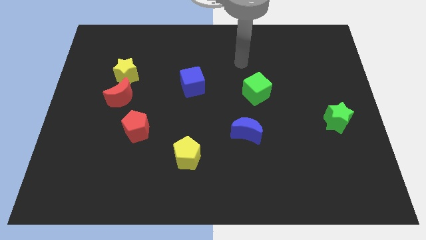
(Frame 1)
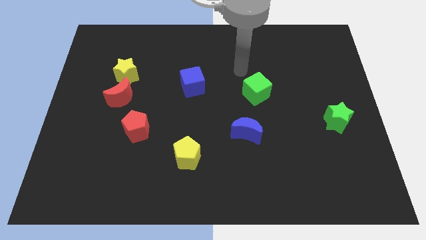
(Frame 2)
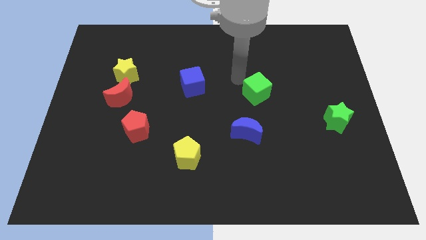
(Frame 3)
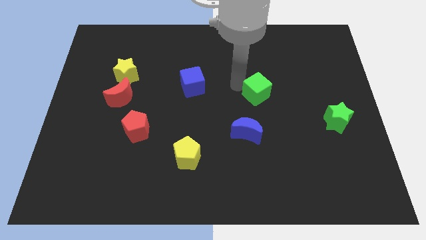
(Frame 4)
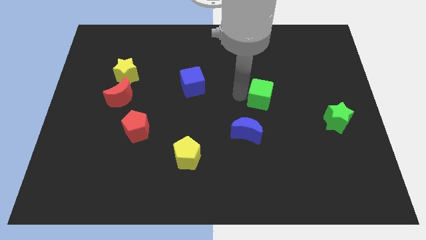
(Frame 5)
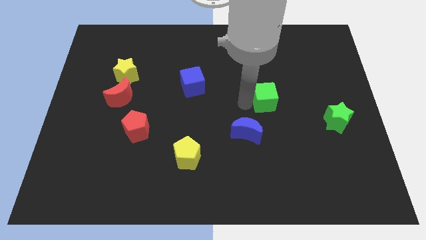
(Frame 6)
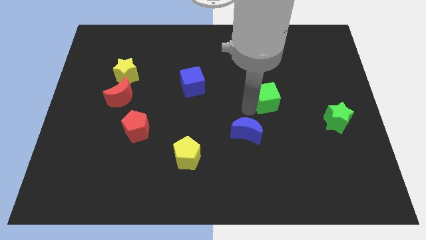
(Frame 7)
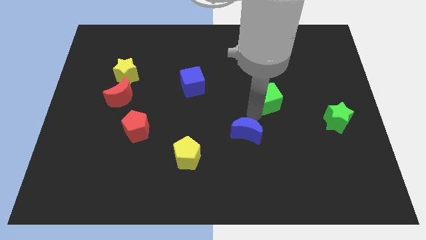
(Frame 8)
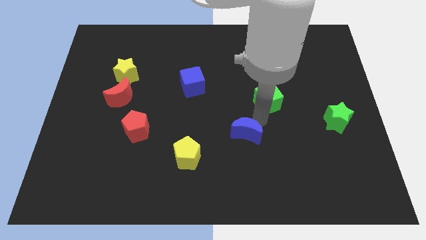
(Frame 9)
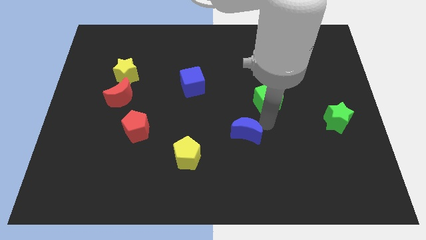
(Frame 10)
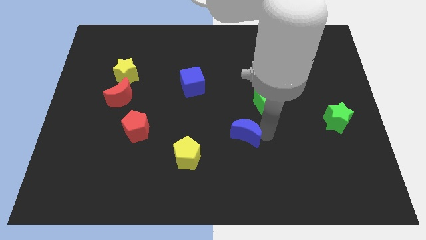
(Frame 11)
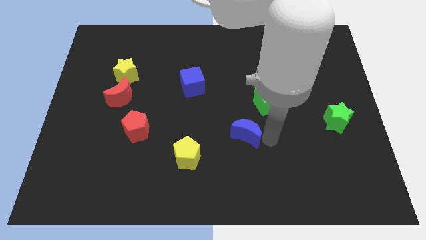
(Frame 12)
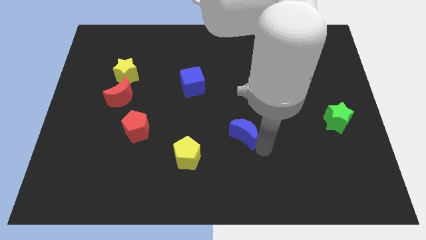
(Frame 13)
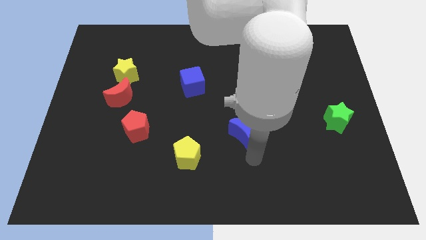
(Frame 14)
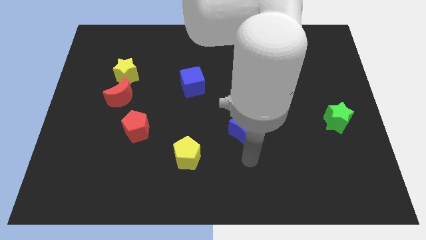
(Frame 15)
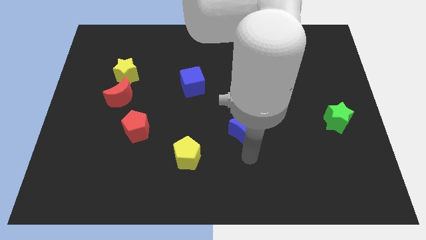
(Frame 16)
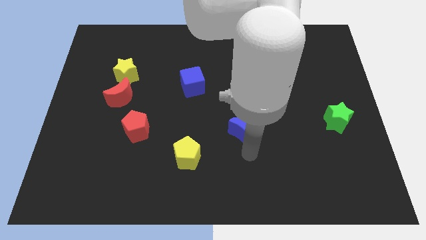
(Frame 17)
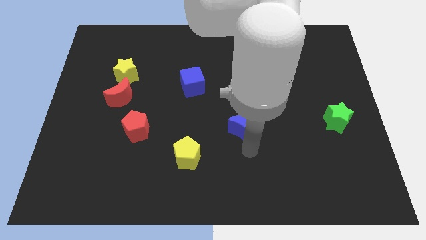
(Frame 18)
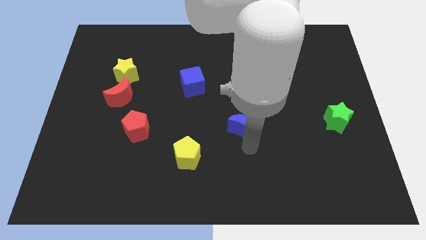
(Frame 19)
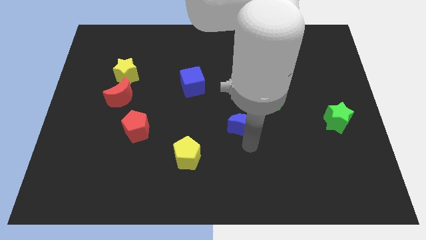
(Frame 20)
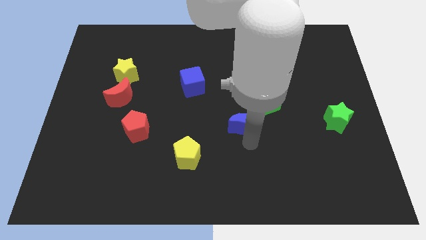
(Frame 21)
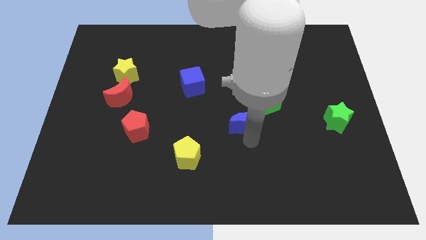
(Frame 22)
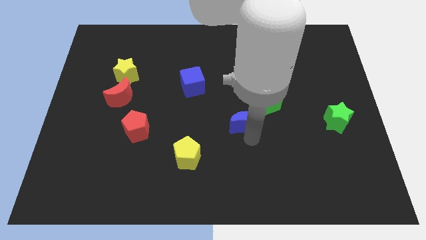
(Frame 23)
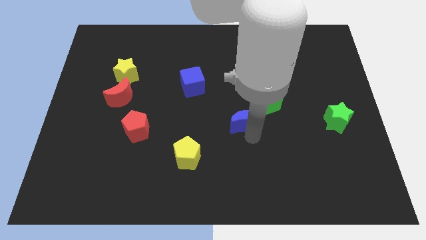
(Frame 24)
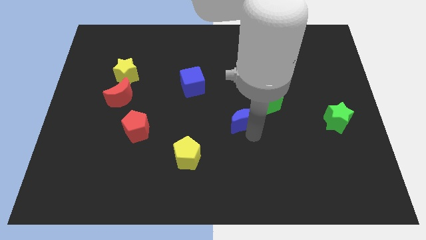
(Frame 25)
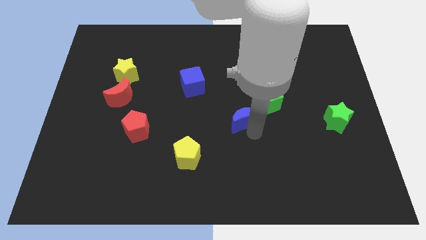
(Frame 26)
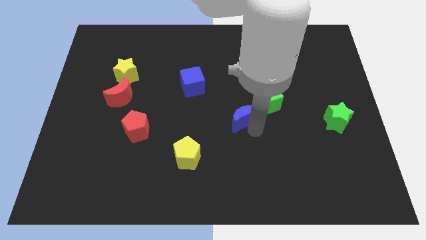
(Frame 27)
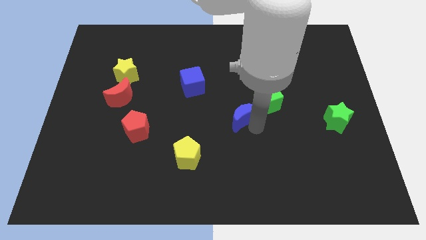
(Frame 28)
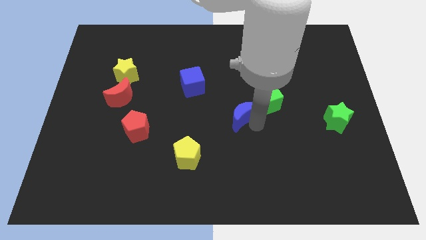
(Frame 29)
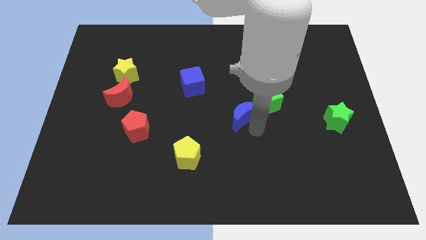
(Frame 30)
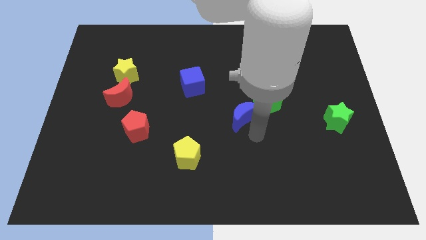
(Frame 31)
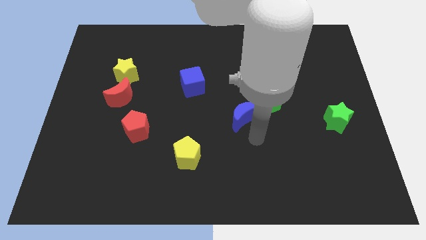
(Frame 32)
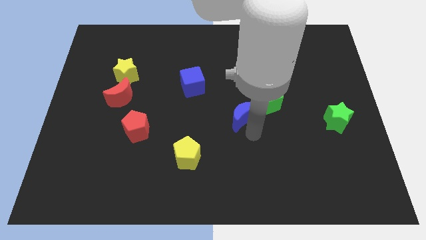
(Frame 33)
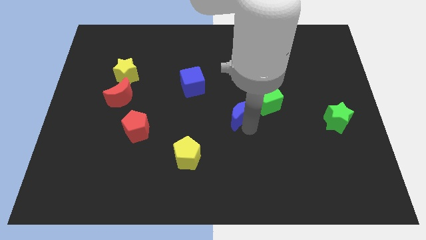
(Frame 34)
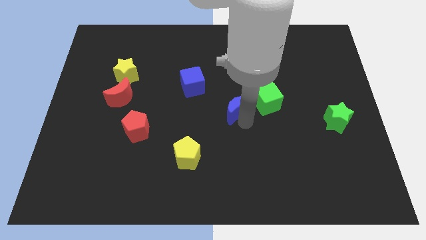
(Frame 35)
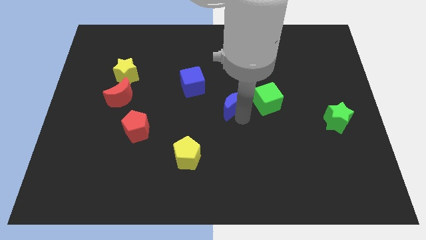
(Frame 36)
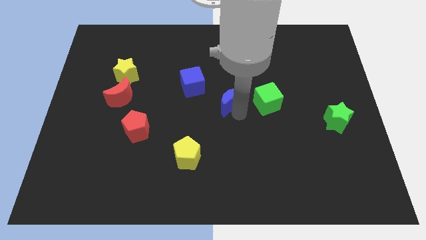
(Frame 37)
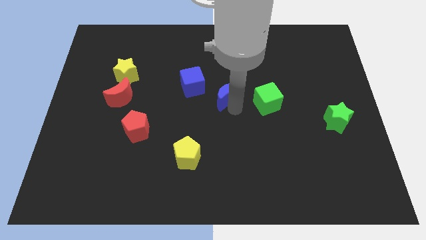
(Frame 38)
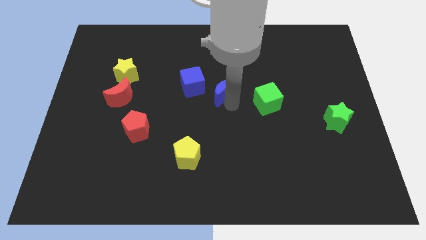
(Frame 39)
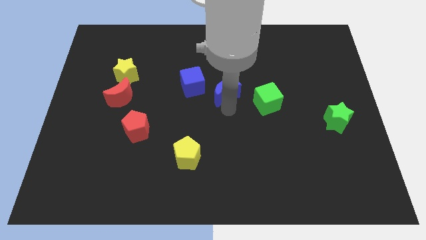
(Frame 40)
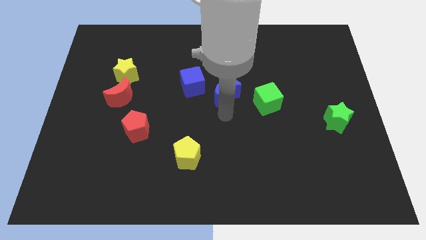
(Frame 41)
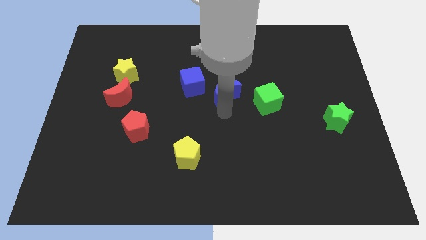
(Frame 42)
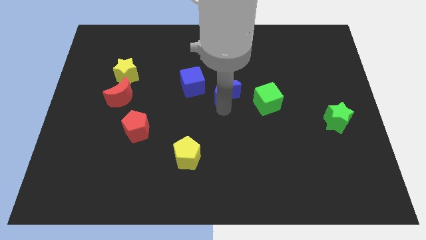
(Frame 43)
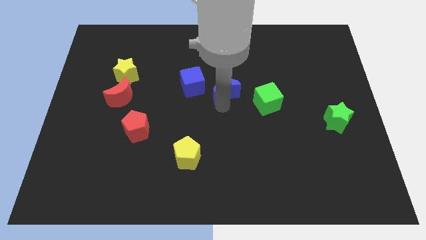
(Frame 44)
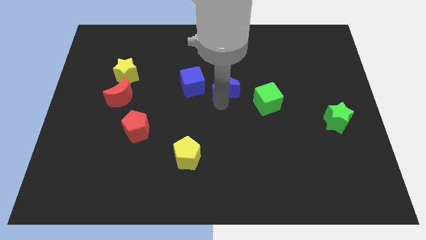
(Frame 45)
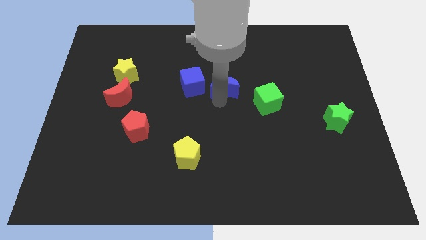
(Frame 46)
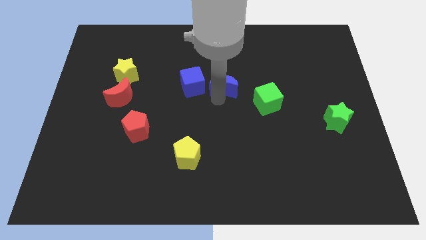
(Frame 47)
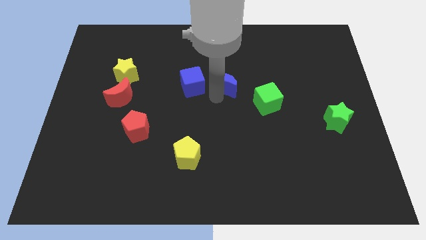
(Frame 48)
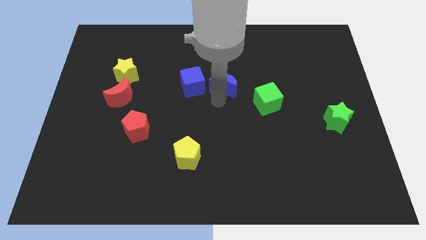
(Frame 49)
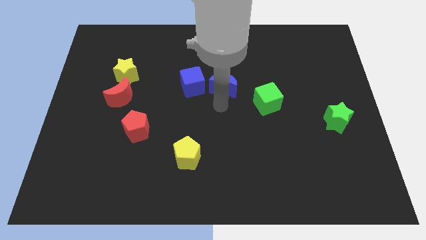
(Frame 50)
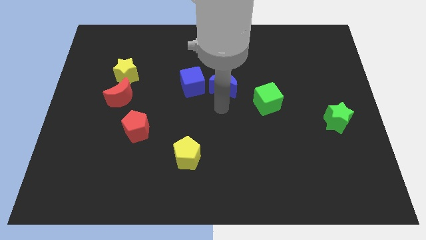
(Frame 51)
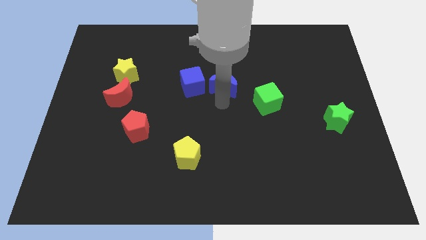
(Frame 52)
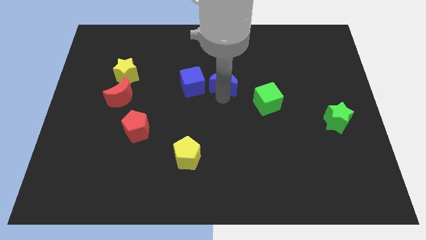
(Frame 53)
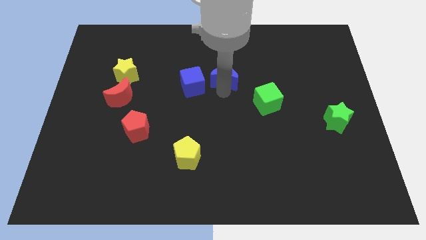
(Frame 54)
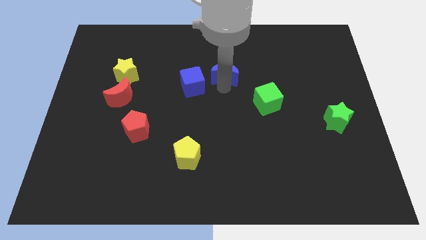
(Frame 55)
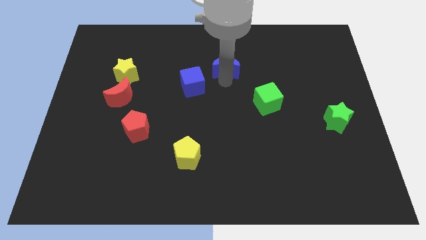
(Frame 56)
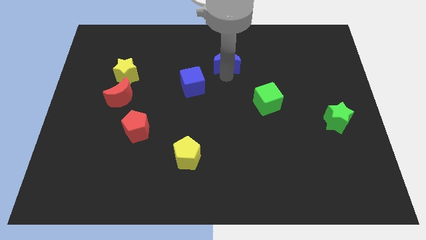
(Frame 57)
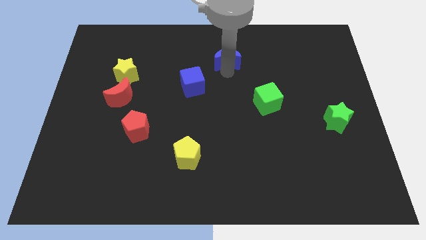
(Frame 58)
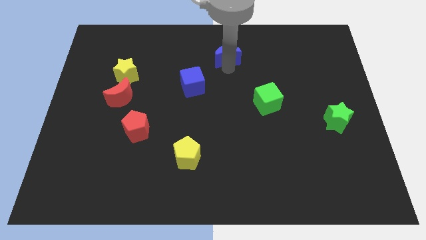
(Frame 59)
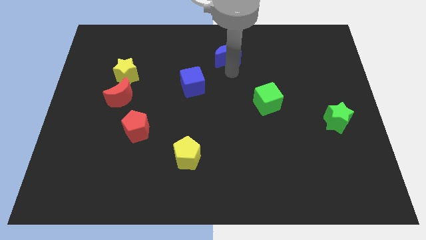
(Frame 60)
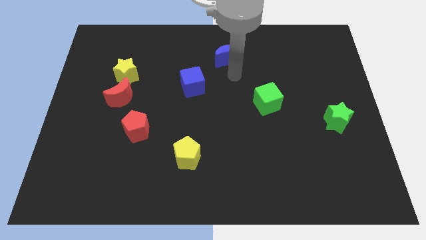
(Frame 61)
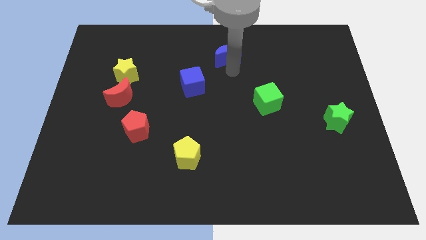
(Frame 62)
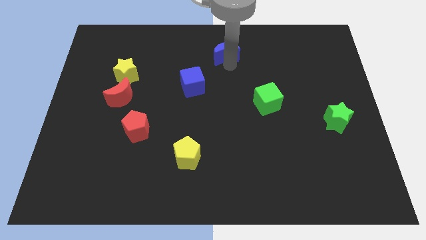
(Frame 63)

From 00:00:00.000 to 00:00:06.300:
put the blue moon to the top side

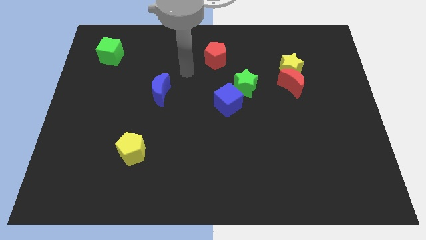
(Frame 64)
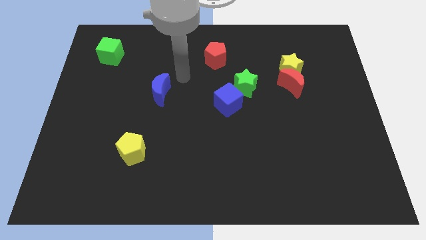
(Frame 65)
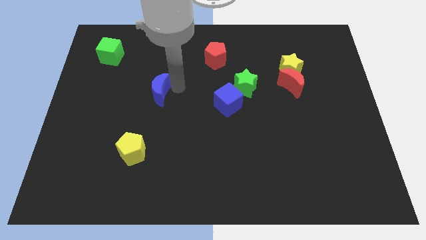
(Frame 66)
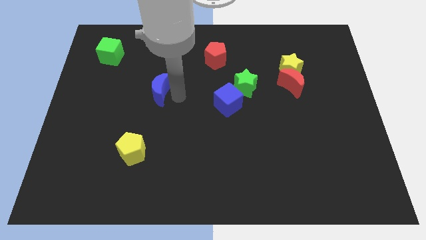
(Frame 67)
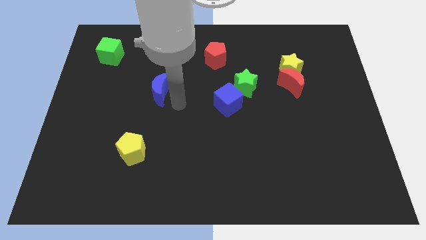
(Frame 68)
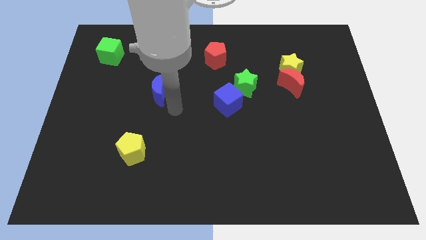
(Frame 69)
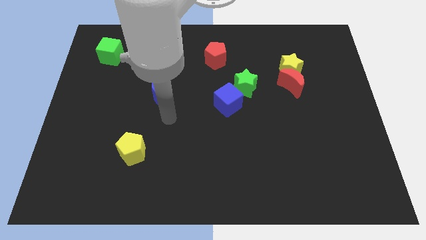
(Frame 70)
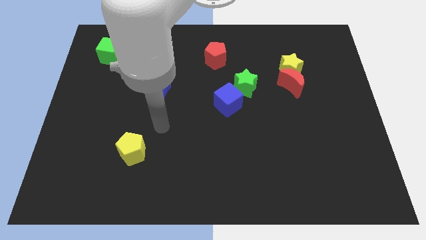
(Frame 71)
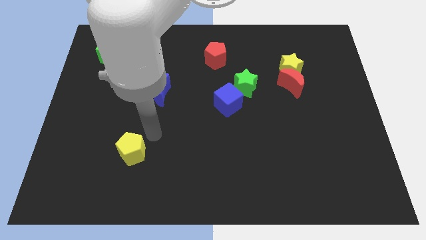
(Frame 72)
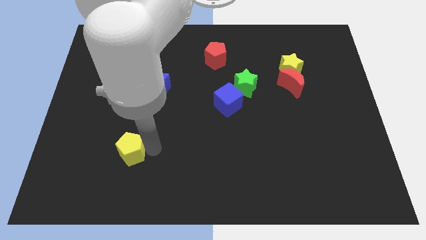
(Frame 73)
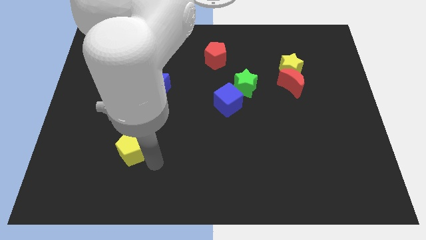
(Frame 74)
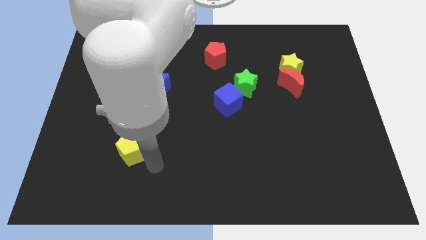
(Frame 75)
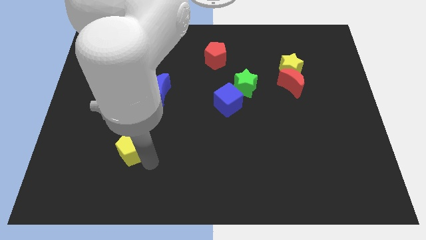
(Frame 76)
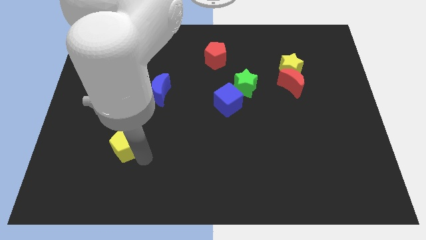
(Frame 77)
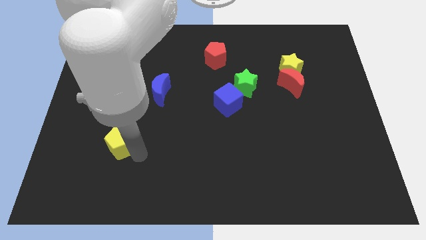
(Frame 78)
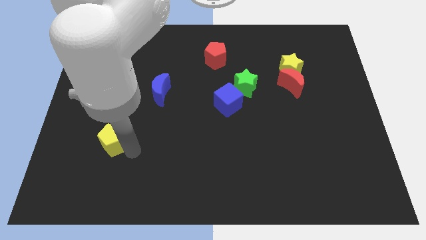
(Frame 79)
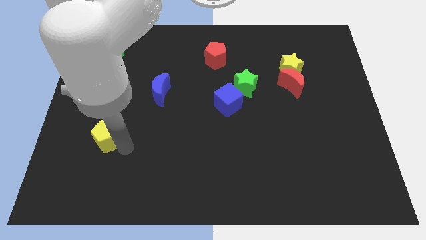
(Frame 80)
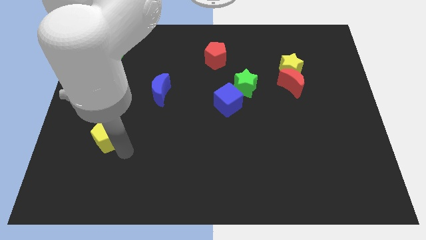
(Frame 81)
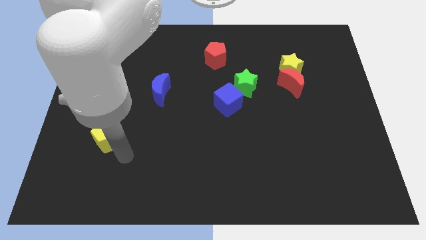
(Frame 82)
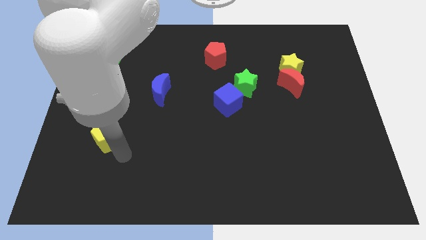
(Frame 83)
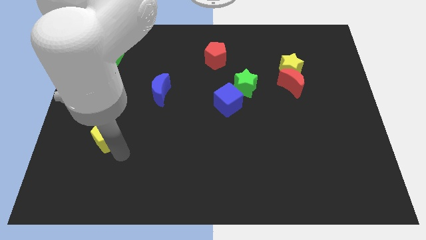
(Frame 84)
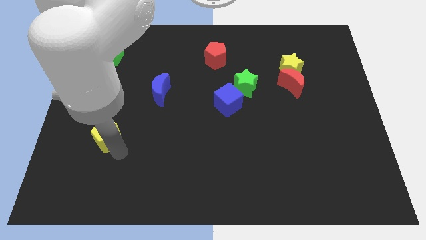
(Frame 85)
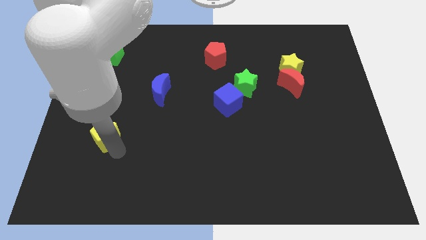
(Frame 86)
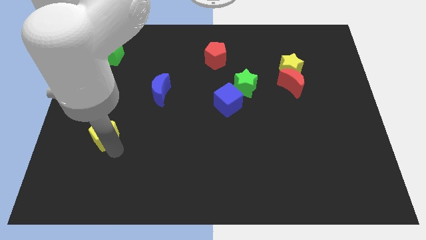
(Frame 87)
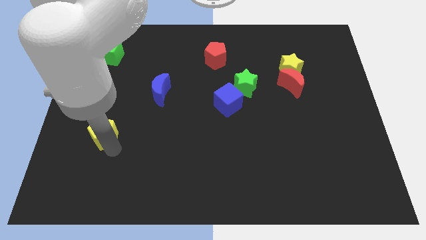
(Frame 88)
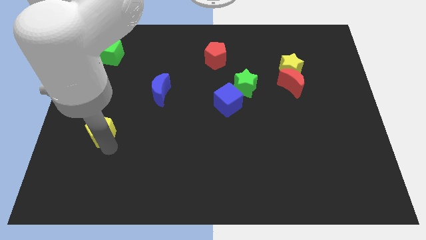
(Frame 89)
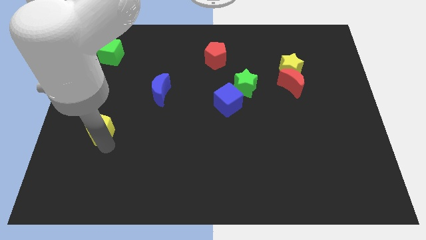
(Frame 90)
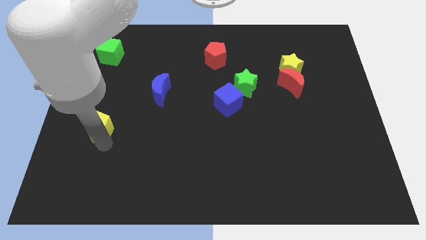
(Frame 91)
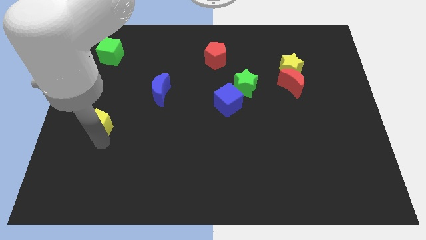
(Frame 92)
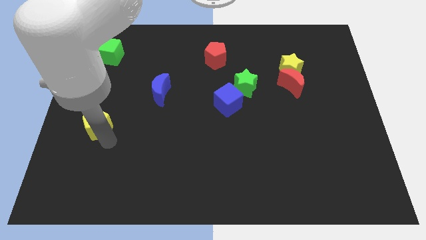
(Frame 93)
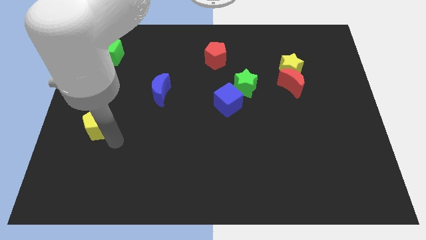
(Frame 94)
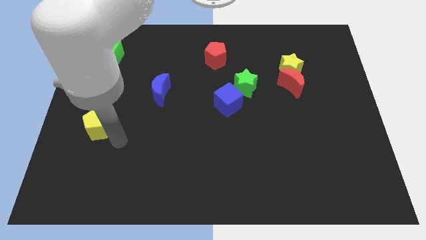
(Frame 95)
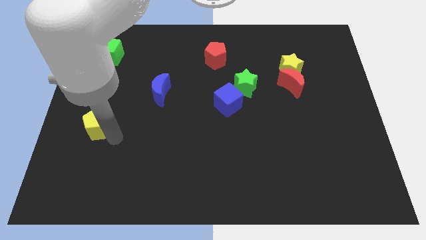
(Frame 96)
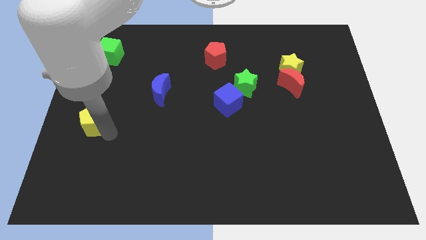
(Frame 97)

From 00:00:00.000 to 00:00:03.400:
slide the yellow pentagon to the left side
